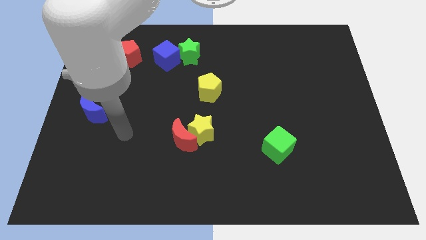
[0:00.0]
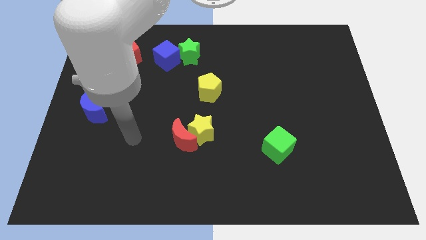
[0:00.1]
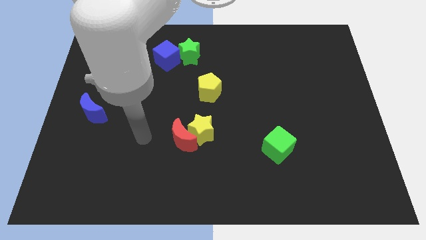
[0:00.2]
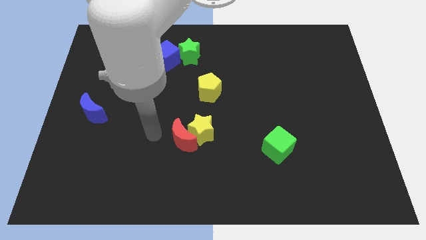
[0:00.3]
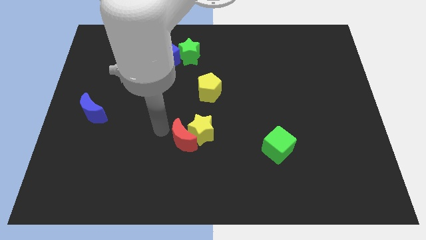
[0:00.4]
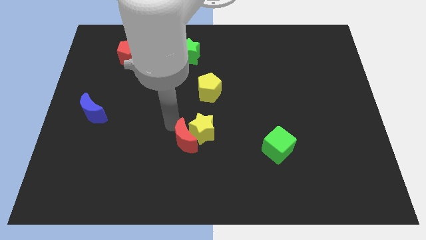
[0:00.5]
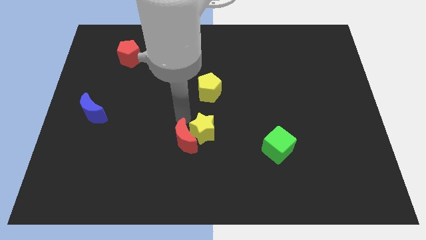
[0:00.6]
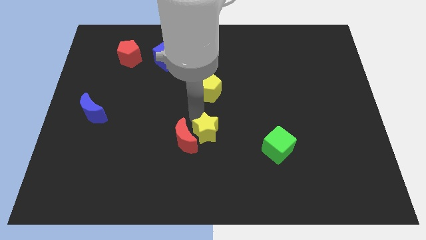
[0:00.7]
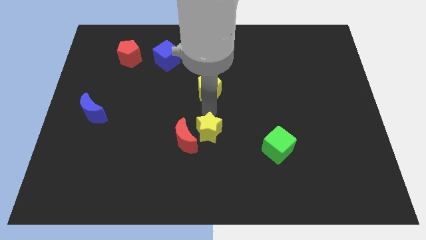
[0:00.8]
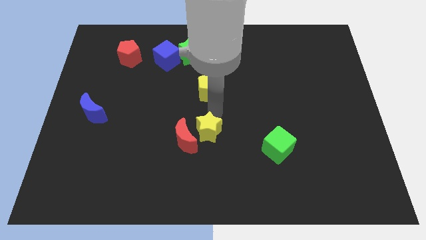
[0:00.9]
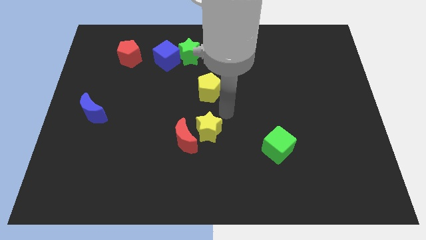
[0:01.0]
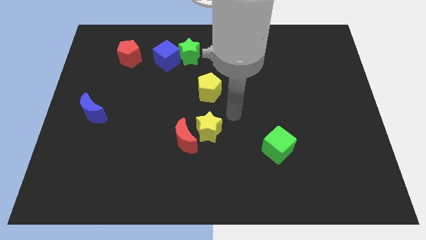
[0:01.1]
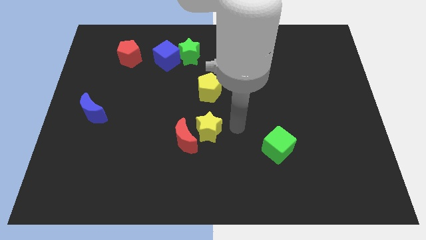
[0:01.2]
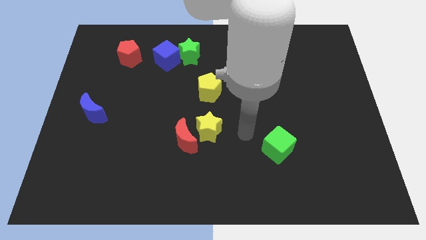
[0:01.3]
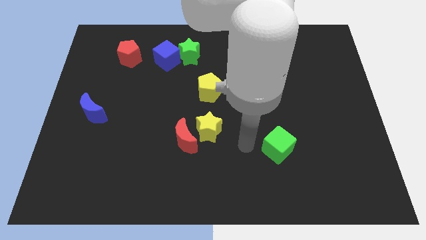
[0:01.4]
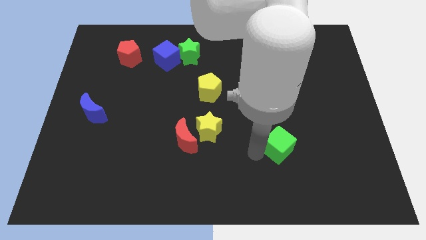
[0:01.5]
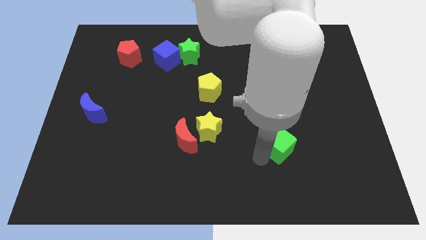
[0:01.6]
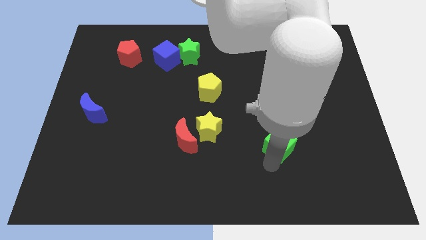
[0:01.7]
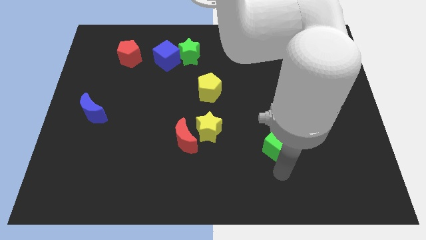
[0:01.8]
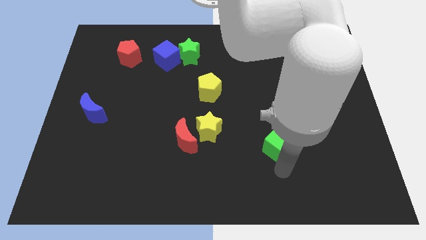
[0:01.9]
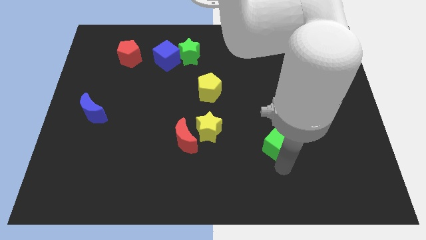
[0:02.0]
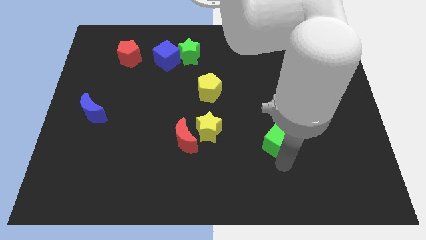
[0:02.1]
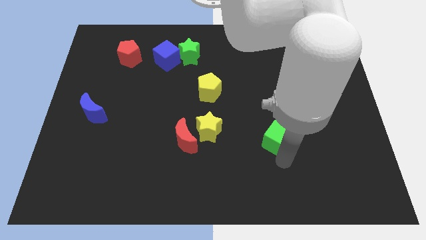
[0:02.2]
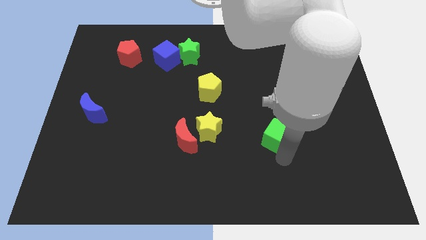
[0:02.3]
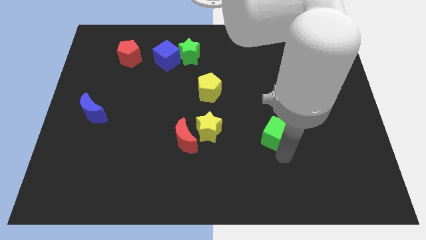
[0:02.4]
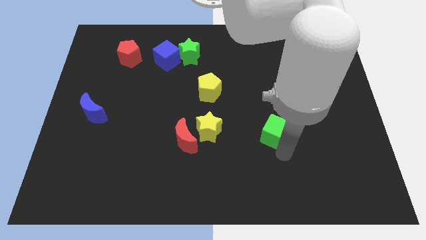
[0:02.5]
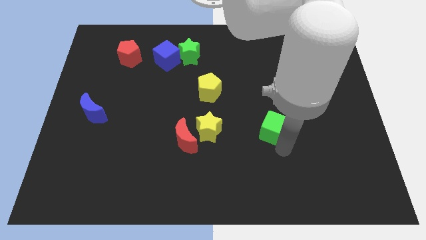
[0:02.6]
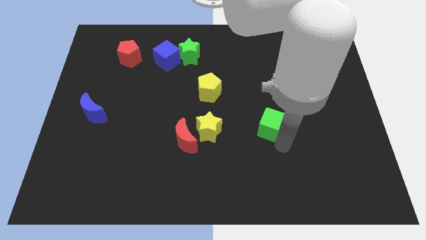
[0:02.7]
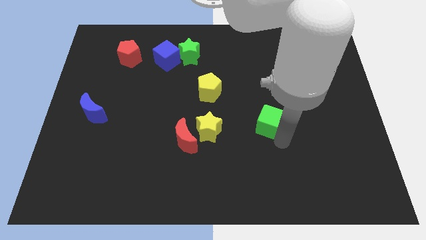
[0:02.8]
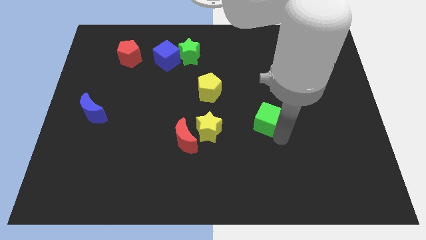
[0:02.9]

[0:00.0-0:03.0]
push the green cube upwards somewhat

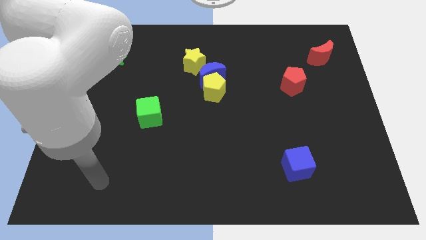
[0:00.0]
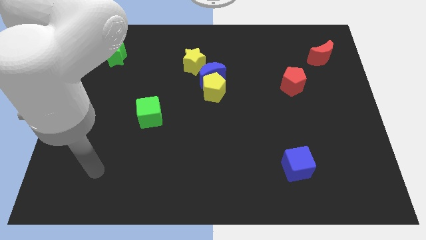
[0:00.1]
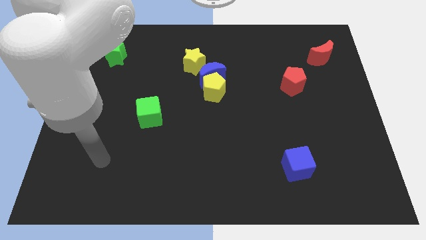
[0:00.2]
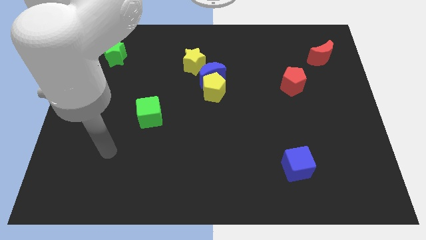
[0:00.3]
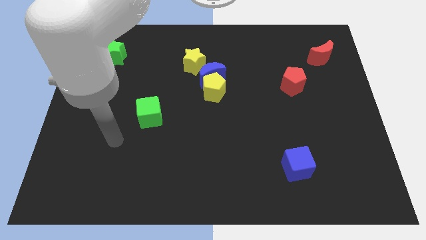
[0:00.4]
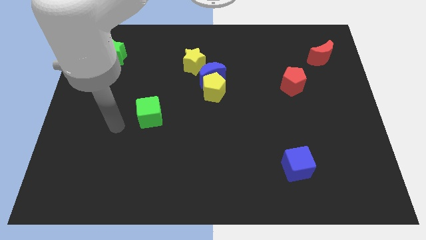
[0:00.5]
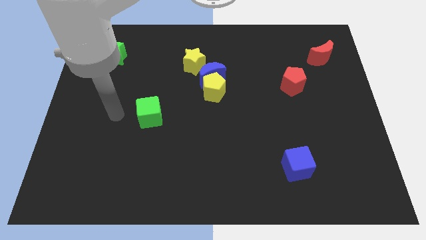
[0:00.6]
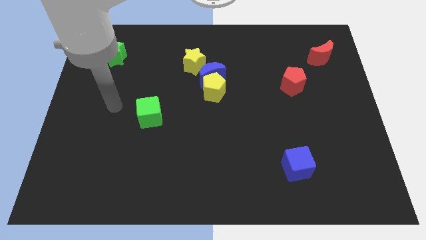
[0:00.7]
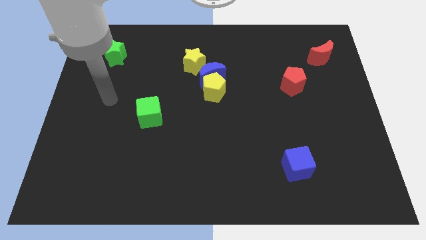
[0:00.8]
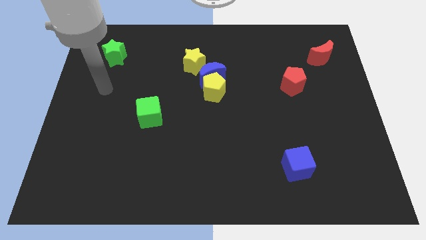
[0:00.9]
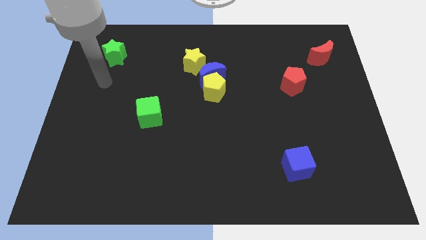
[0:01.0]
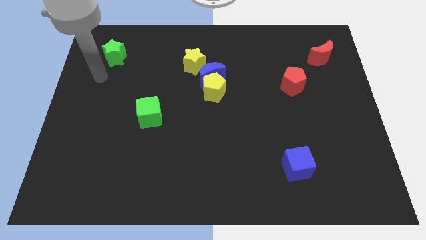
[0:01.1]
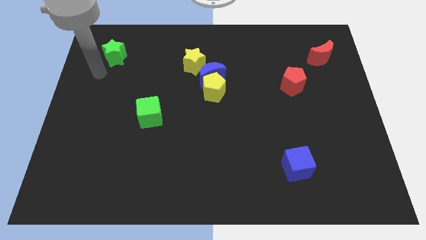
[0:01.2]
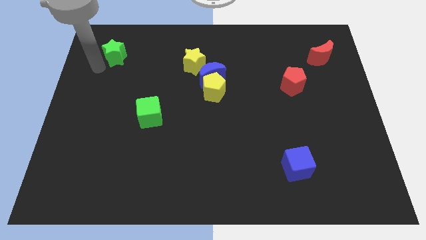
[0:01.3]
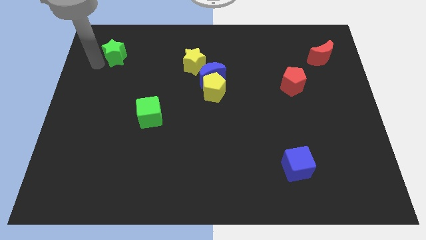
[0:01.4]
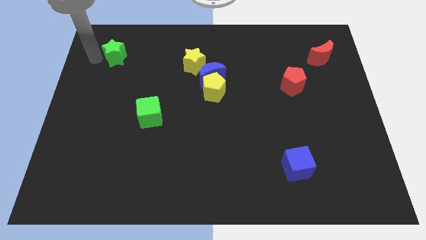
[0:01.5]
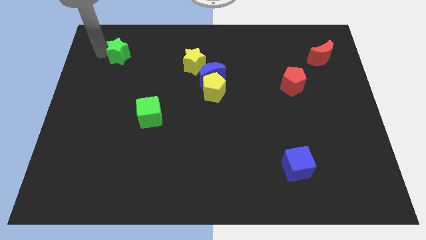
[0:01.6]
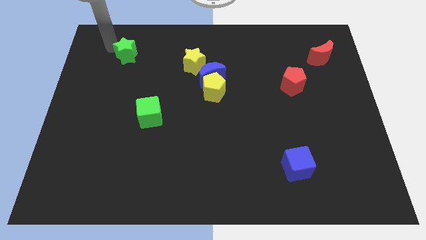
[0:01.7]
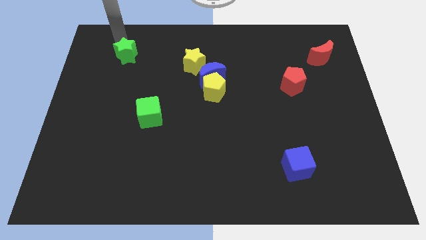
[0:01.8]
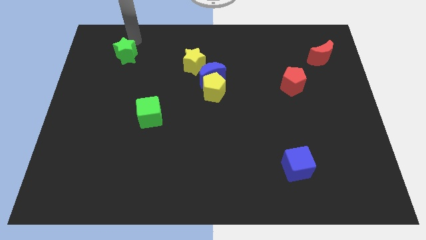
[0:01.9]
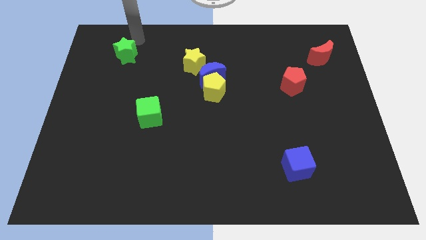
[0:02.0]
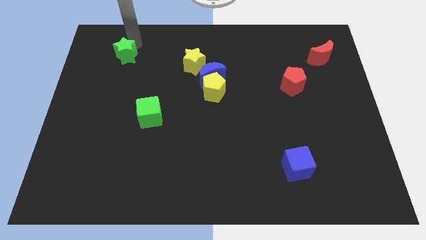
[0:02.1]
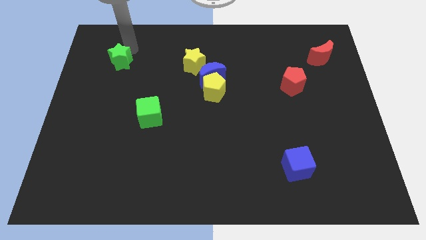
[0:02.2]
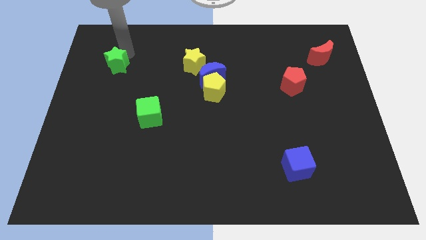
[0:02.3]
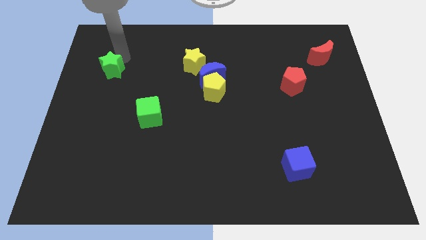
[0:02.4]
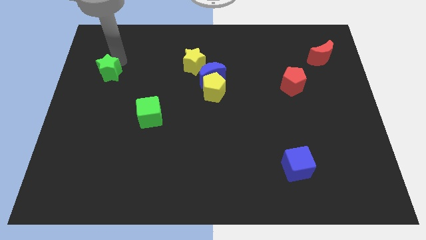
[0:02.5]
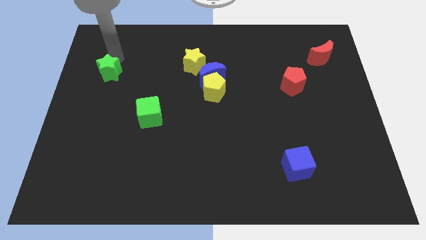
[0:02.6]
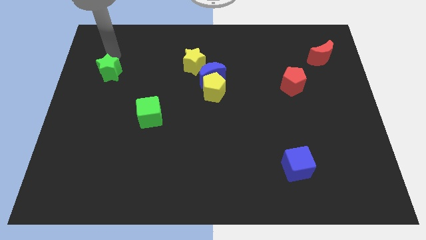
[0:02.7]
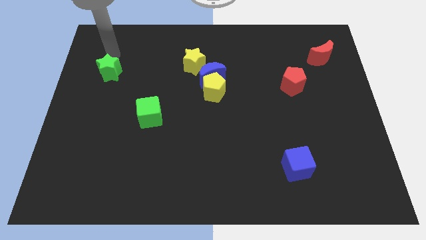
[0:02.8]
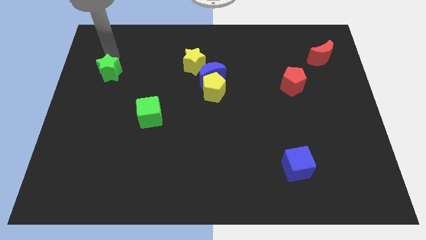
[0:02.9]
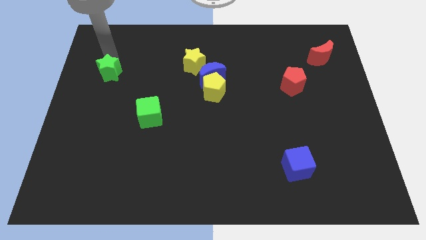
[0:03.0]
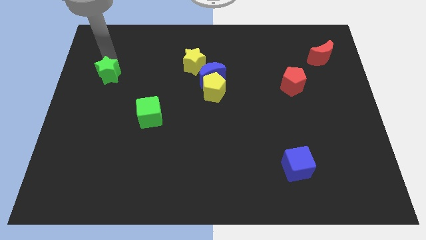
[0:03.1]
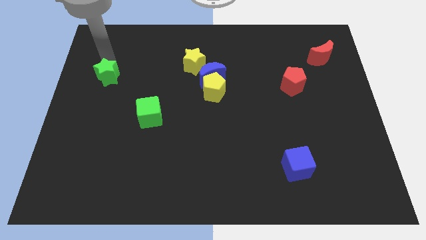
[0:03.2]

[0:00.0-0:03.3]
slightly slide the green star downwards

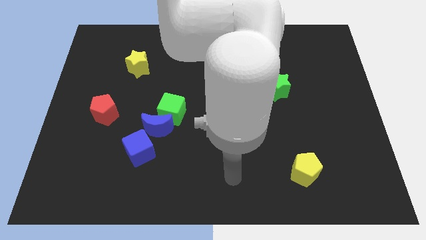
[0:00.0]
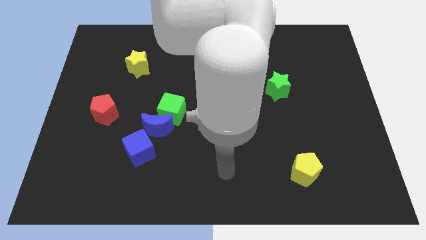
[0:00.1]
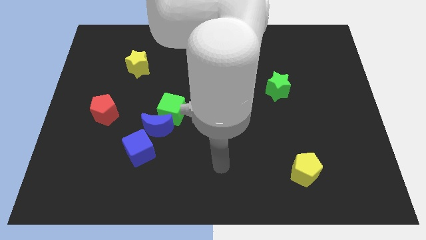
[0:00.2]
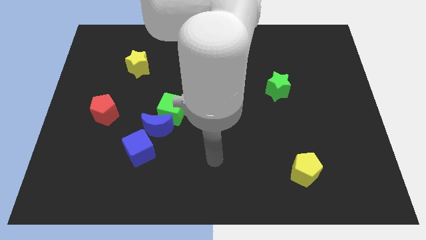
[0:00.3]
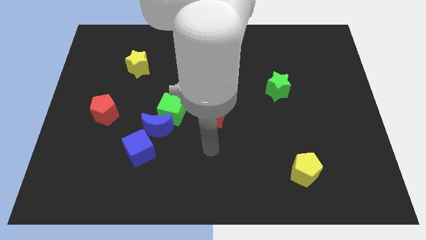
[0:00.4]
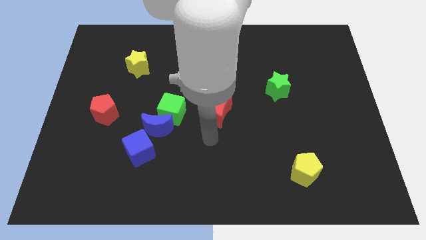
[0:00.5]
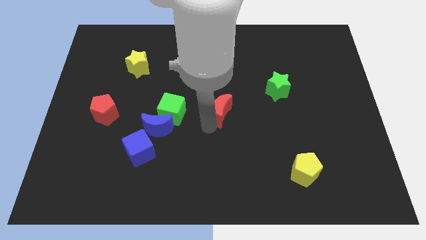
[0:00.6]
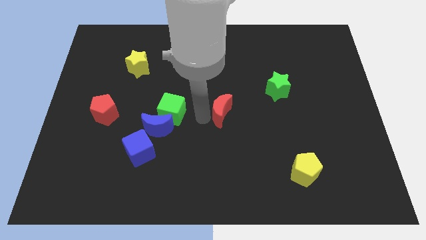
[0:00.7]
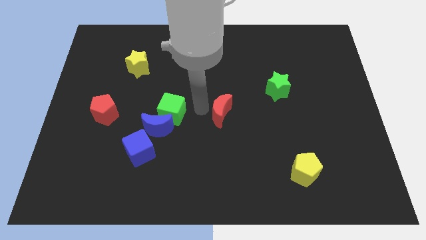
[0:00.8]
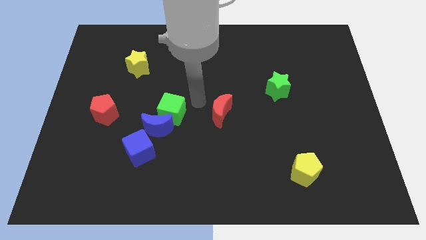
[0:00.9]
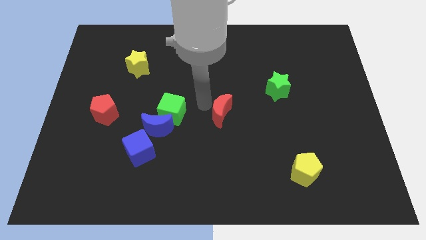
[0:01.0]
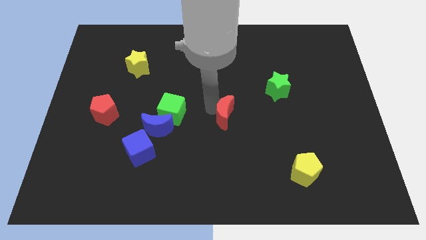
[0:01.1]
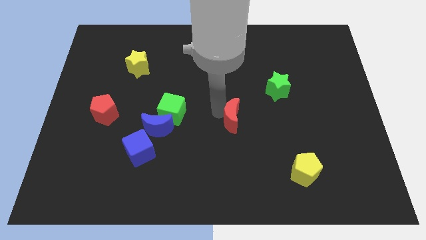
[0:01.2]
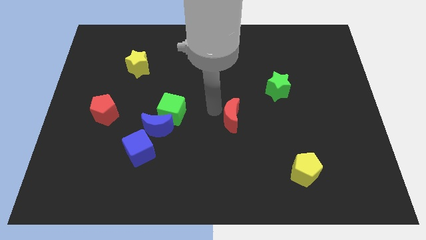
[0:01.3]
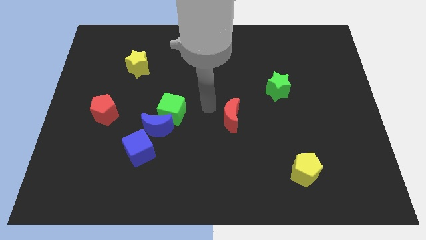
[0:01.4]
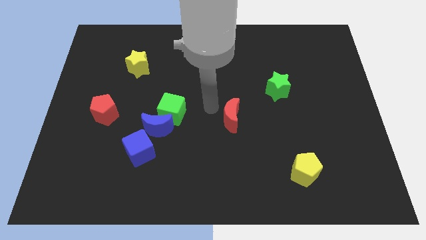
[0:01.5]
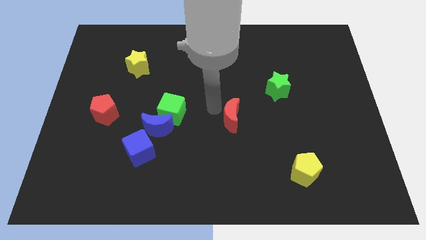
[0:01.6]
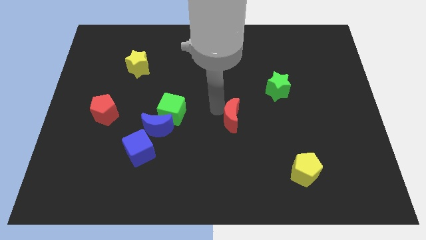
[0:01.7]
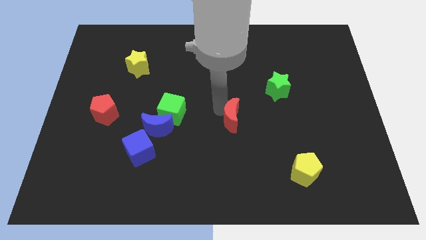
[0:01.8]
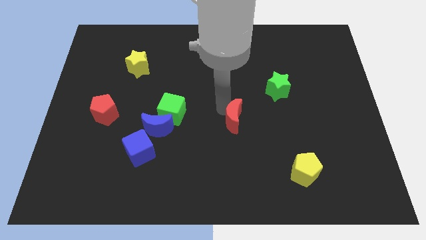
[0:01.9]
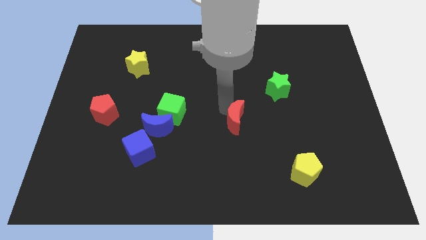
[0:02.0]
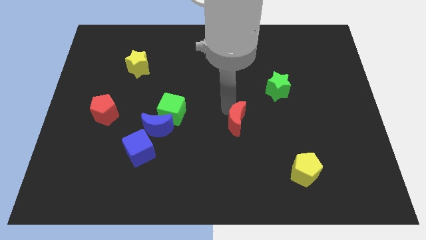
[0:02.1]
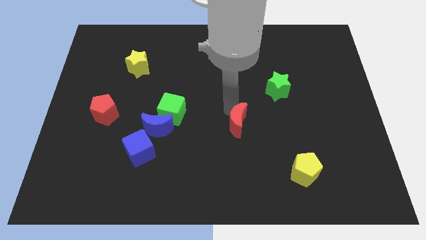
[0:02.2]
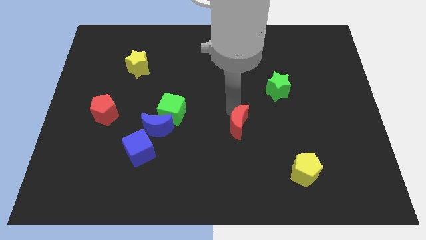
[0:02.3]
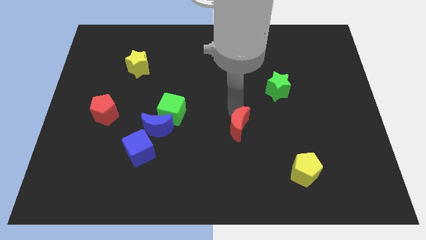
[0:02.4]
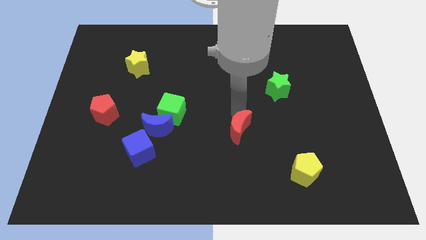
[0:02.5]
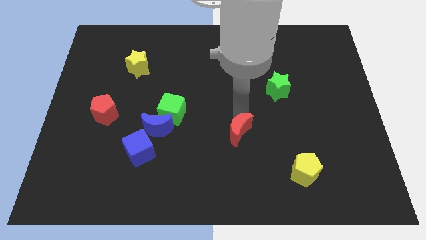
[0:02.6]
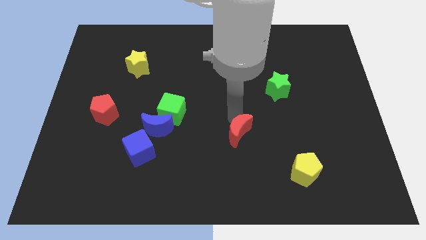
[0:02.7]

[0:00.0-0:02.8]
slightly slide the red moon diagonally downwards and to the right
